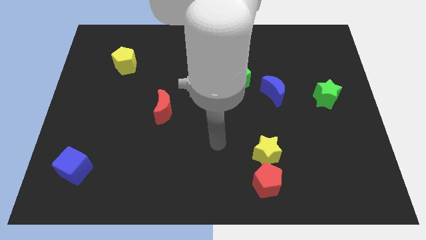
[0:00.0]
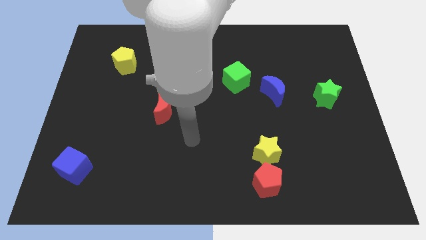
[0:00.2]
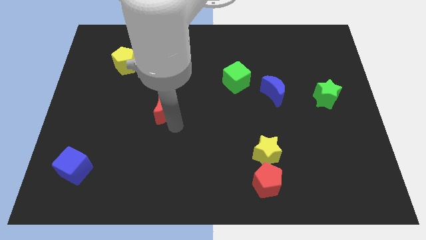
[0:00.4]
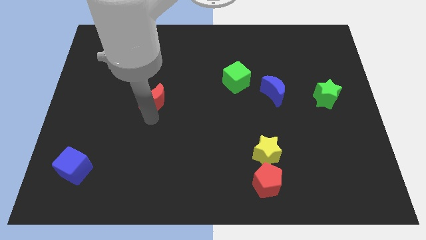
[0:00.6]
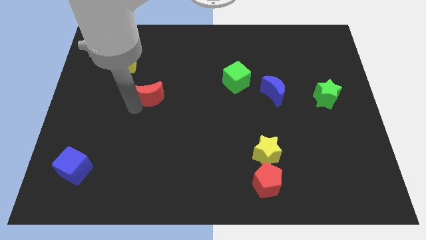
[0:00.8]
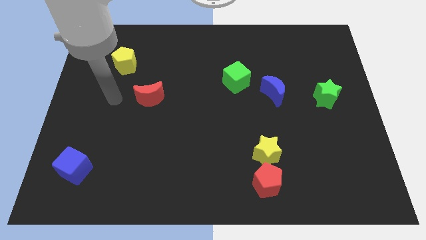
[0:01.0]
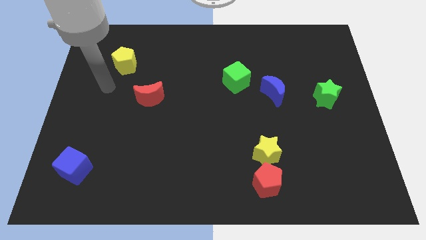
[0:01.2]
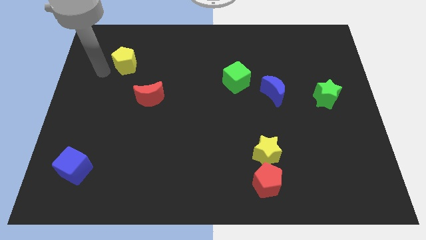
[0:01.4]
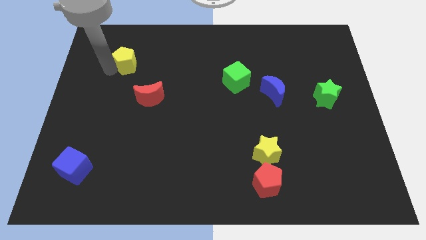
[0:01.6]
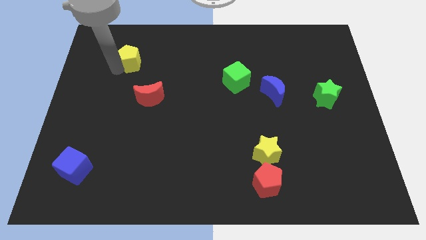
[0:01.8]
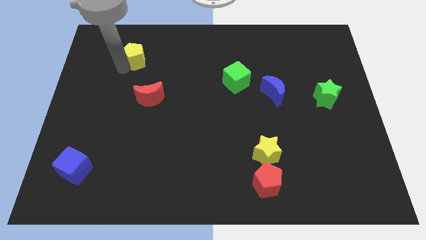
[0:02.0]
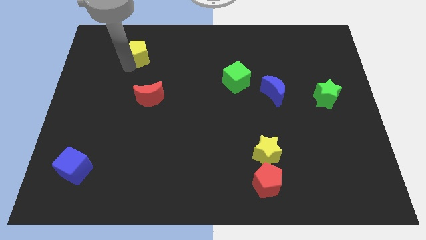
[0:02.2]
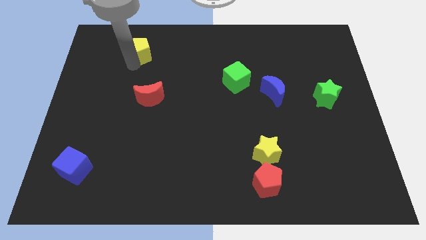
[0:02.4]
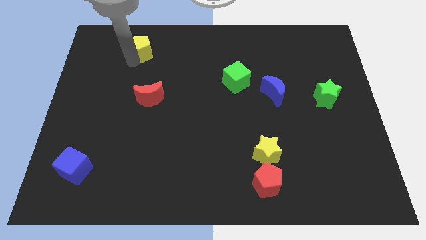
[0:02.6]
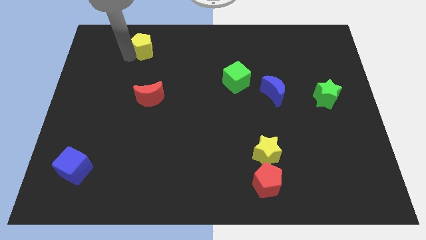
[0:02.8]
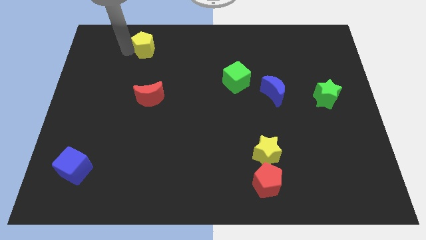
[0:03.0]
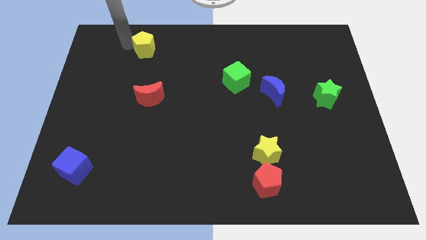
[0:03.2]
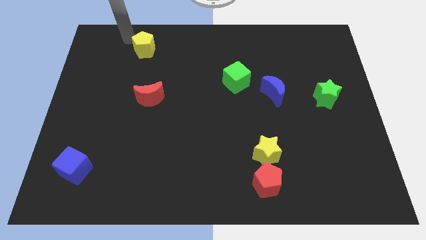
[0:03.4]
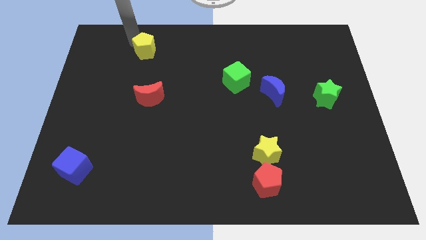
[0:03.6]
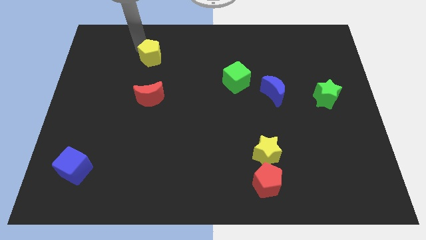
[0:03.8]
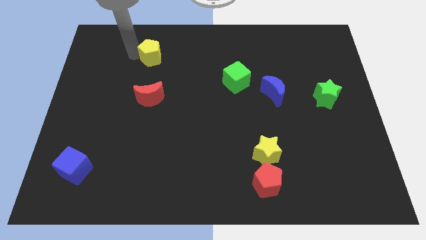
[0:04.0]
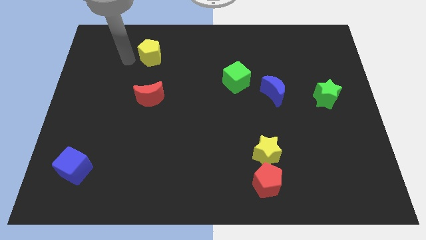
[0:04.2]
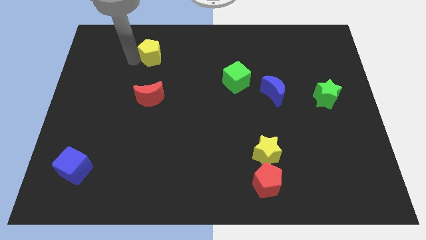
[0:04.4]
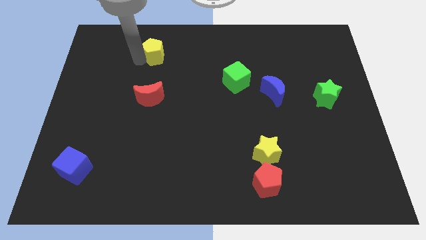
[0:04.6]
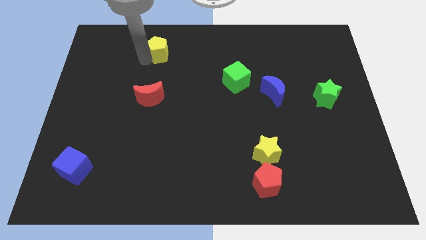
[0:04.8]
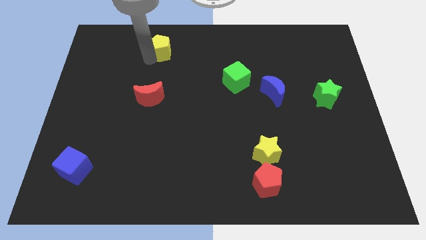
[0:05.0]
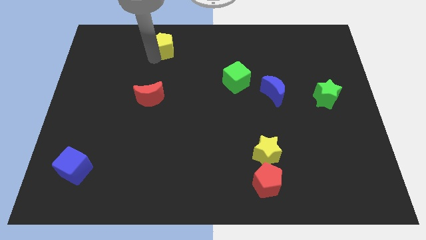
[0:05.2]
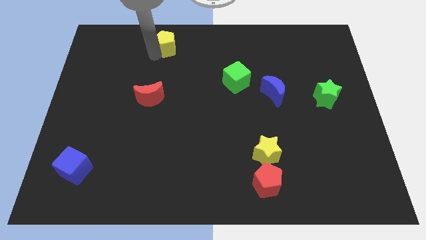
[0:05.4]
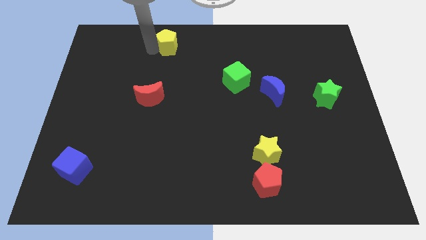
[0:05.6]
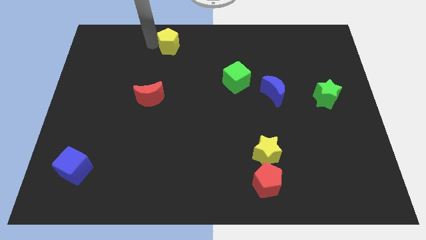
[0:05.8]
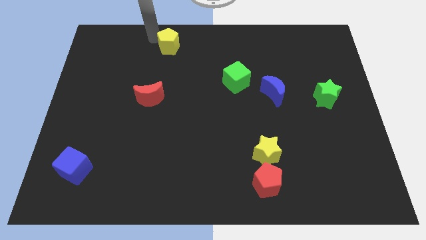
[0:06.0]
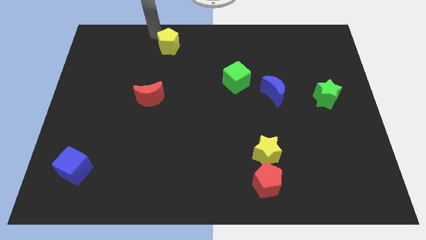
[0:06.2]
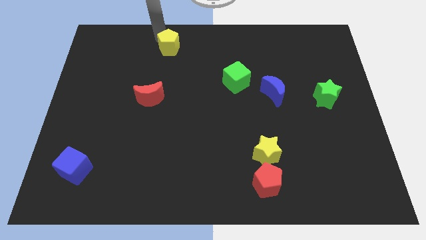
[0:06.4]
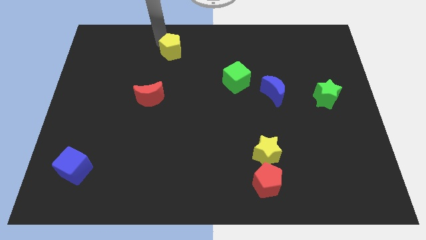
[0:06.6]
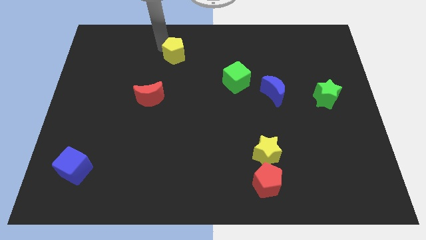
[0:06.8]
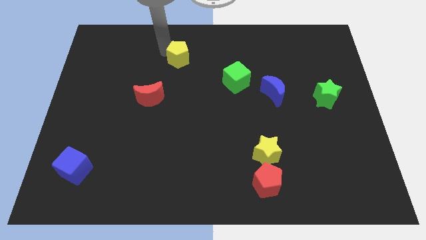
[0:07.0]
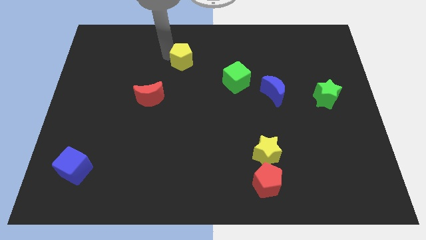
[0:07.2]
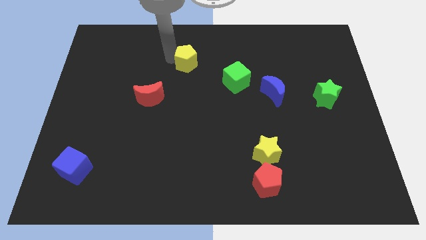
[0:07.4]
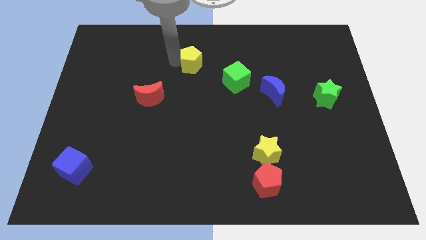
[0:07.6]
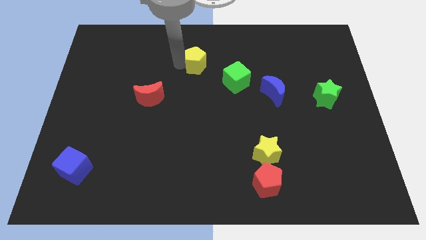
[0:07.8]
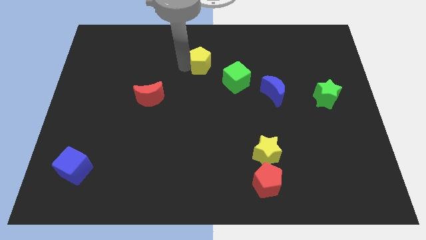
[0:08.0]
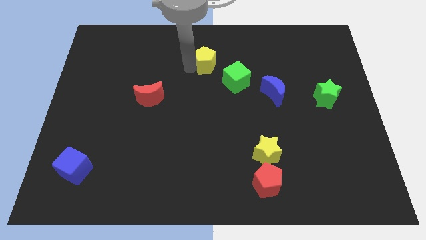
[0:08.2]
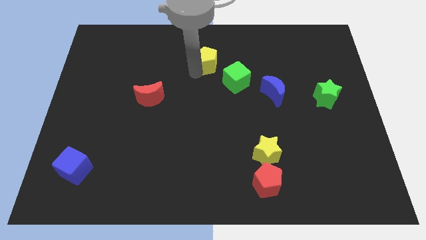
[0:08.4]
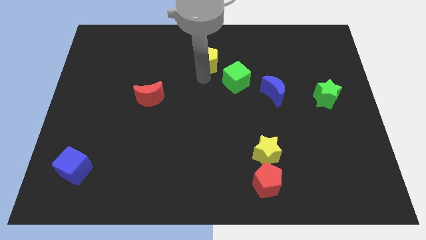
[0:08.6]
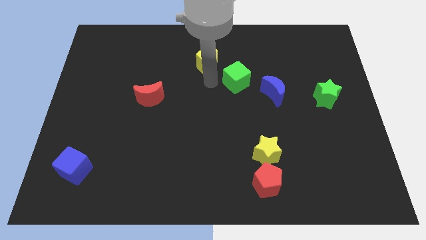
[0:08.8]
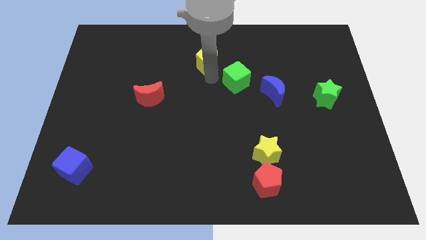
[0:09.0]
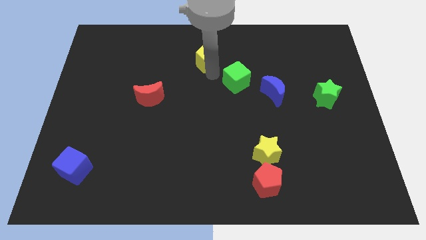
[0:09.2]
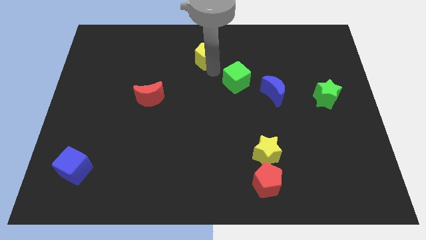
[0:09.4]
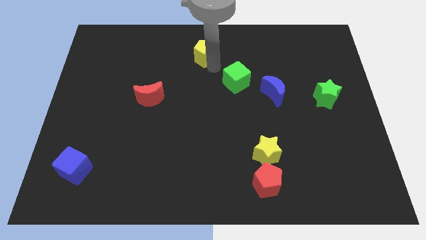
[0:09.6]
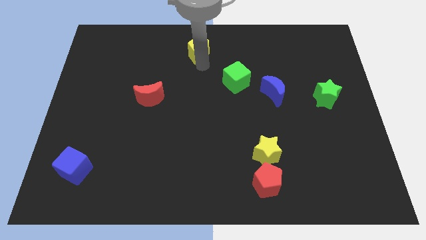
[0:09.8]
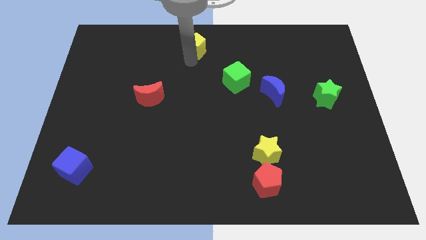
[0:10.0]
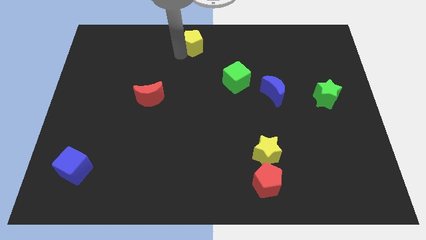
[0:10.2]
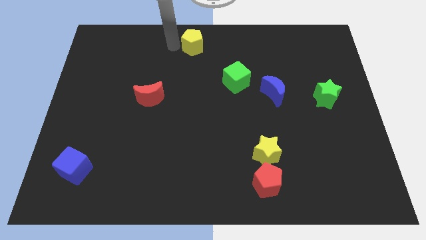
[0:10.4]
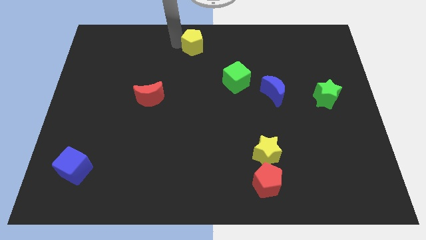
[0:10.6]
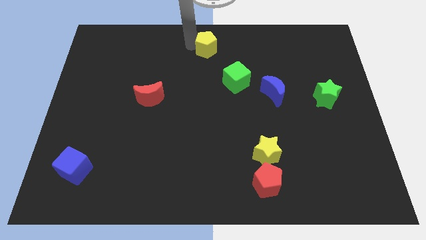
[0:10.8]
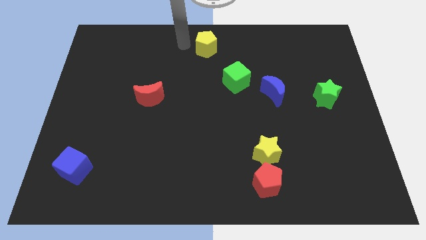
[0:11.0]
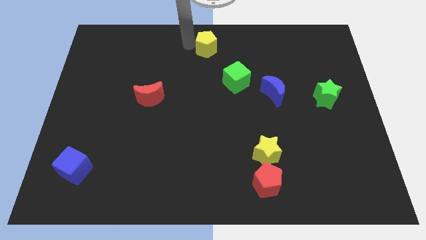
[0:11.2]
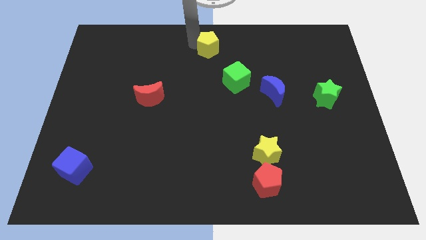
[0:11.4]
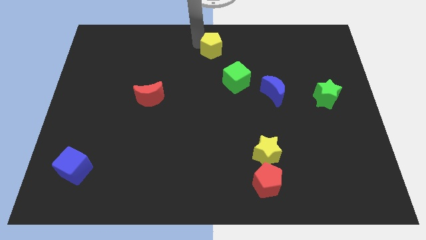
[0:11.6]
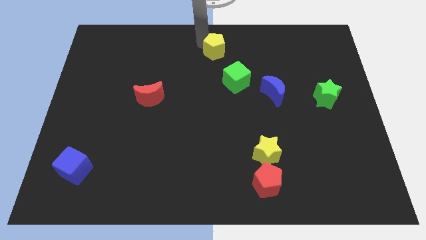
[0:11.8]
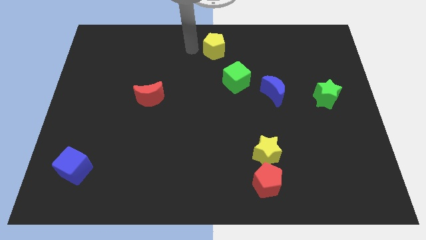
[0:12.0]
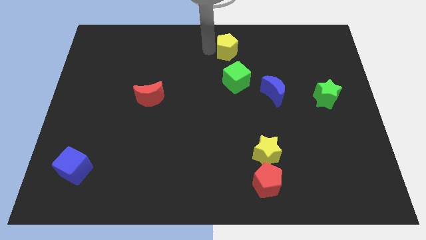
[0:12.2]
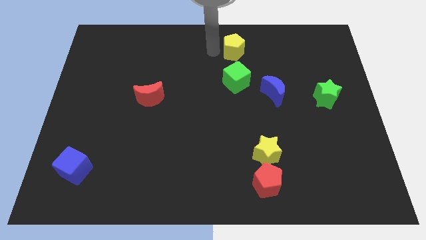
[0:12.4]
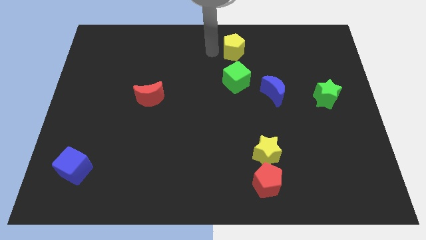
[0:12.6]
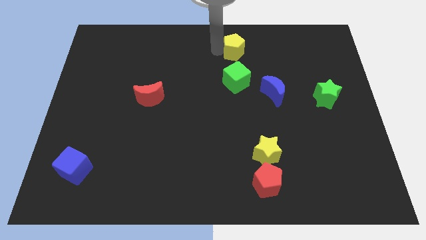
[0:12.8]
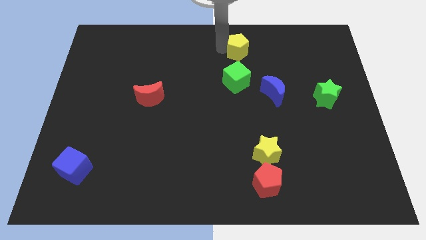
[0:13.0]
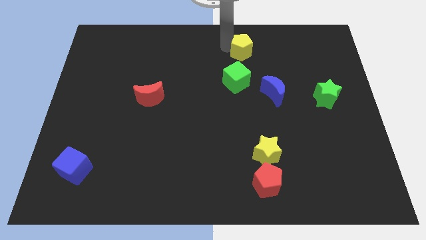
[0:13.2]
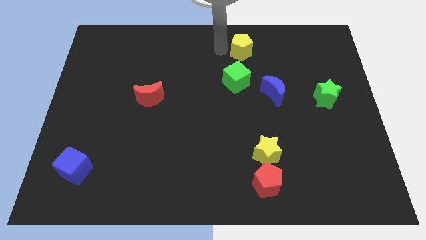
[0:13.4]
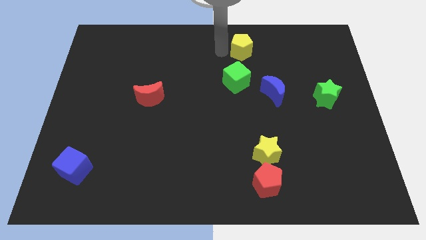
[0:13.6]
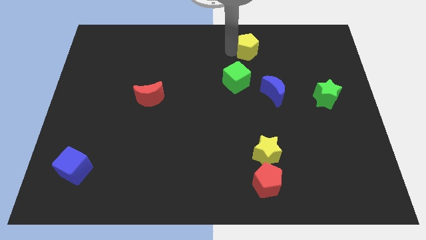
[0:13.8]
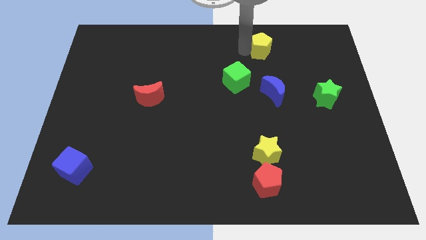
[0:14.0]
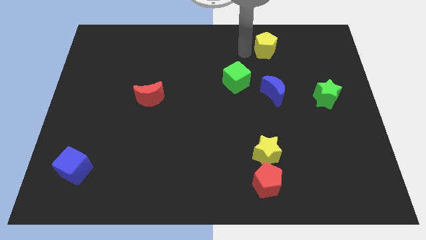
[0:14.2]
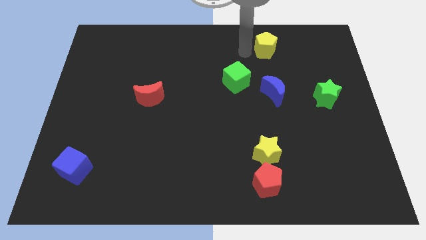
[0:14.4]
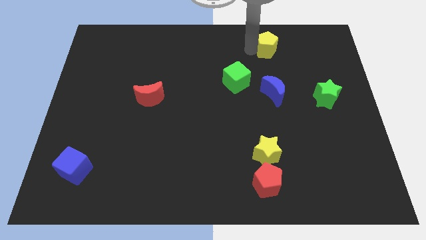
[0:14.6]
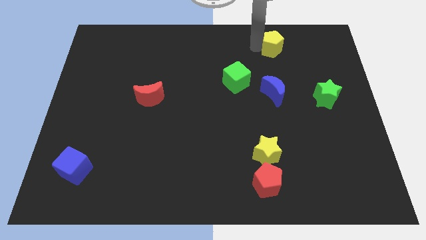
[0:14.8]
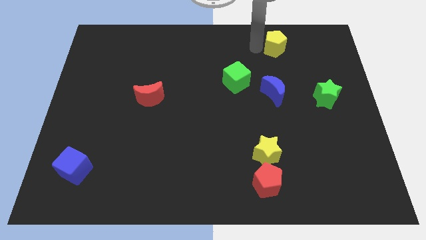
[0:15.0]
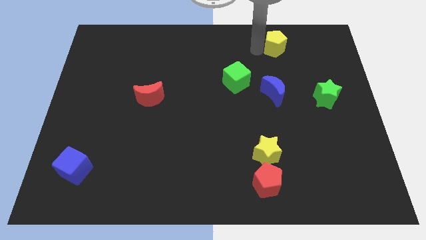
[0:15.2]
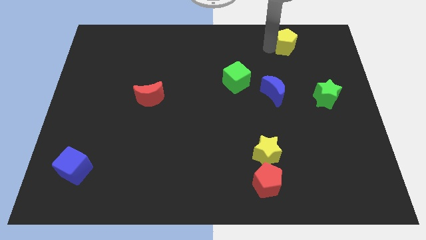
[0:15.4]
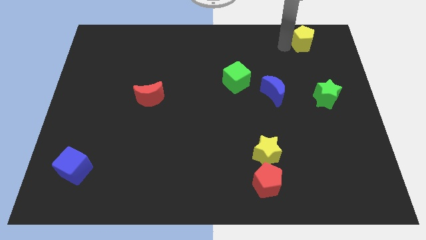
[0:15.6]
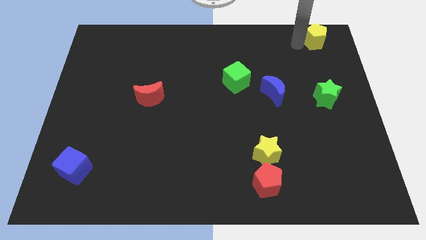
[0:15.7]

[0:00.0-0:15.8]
slide the yellow pentagon to the top right
